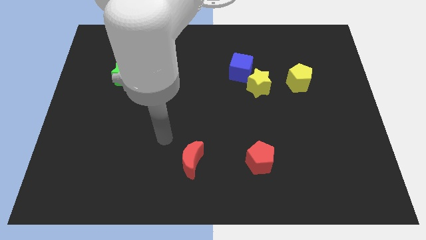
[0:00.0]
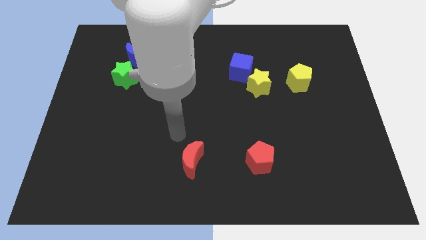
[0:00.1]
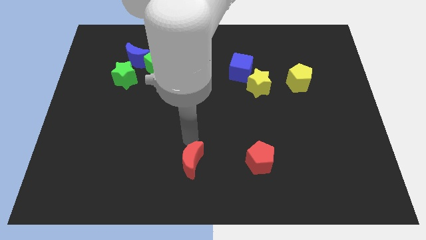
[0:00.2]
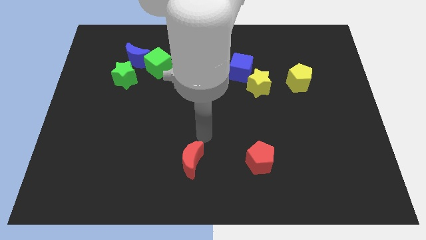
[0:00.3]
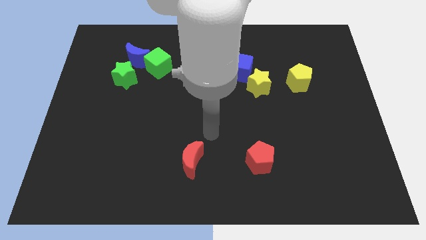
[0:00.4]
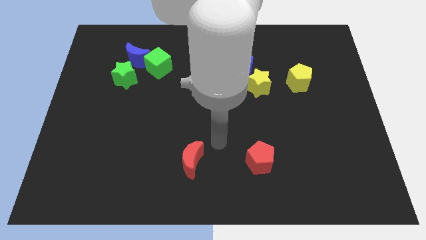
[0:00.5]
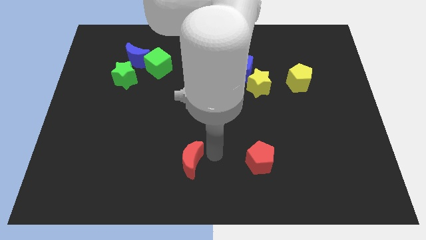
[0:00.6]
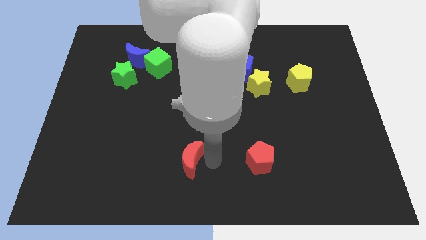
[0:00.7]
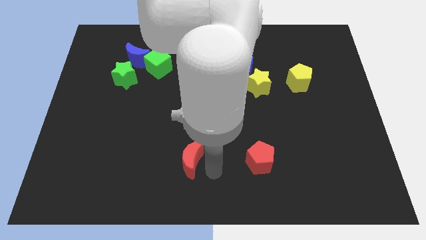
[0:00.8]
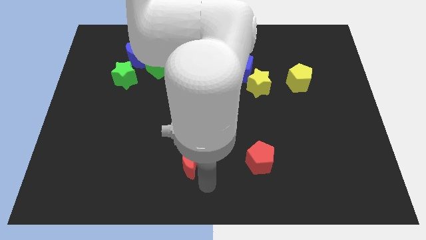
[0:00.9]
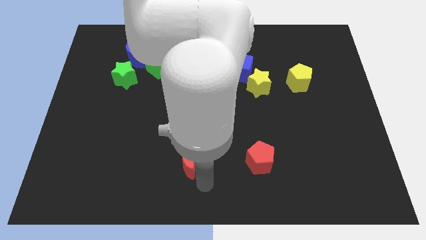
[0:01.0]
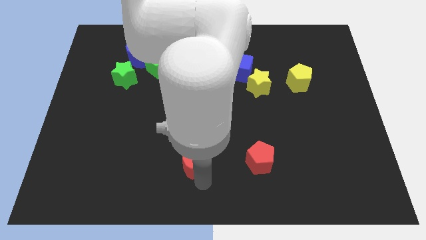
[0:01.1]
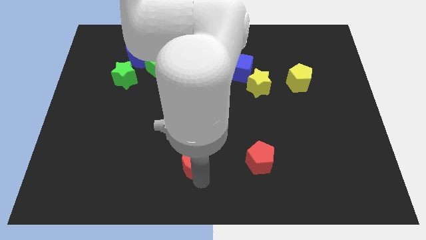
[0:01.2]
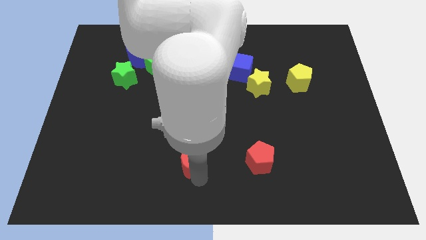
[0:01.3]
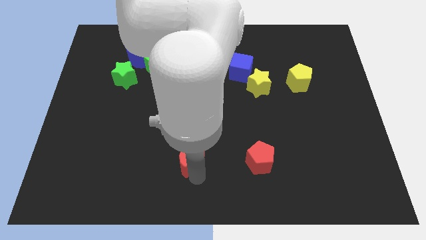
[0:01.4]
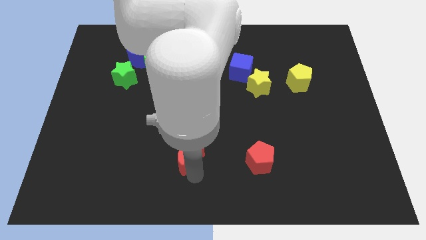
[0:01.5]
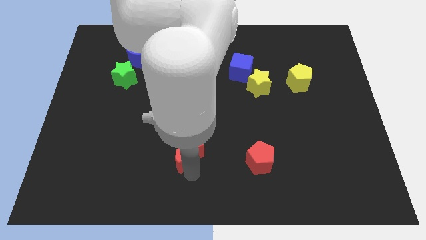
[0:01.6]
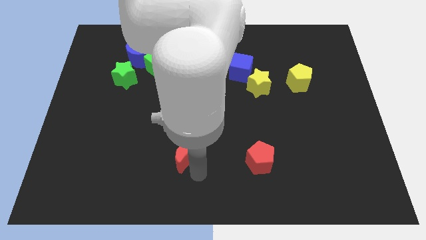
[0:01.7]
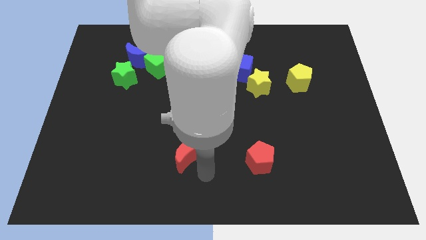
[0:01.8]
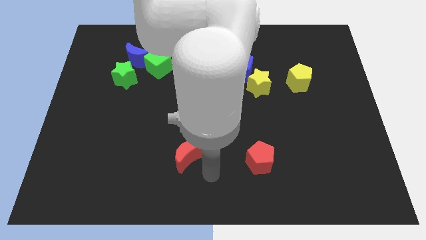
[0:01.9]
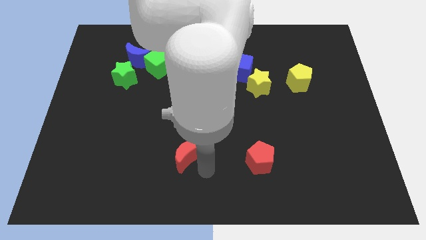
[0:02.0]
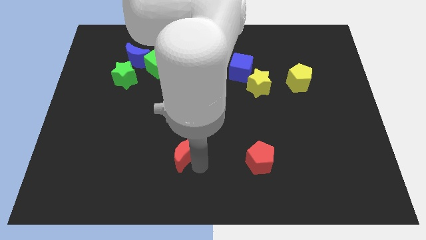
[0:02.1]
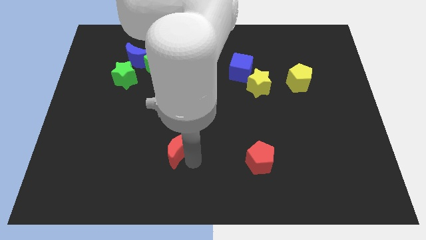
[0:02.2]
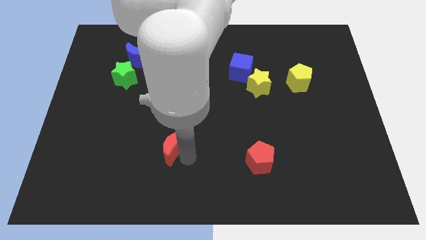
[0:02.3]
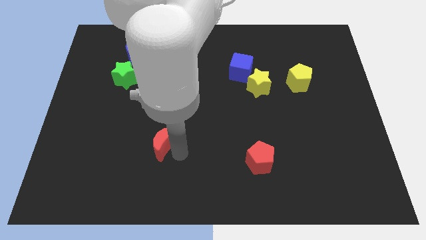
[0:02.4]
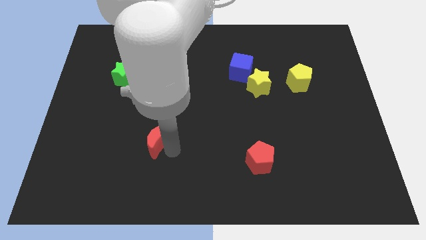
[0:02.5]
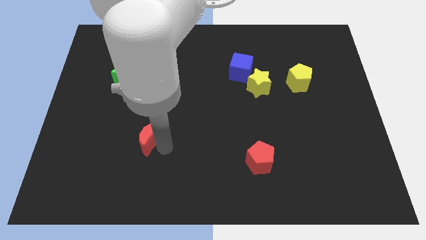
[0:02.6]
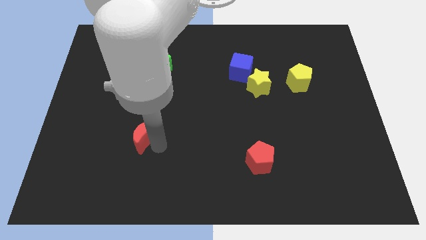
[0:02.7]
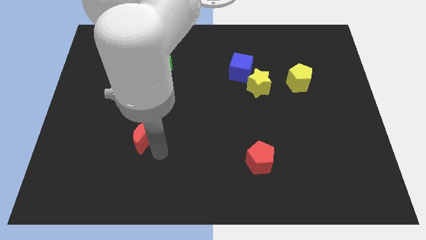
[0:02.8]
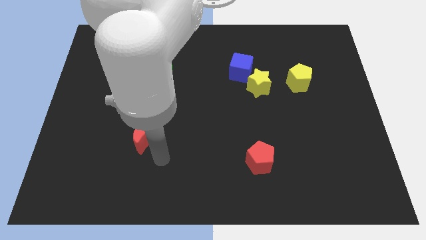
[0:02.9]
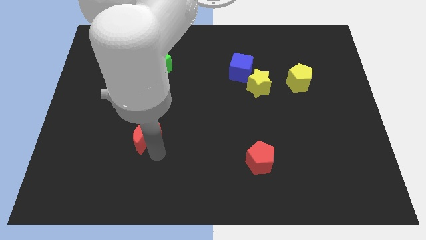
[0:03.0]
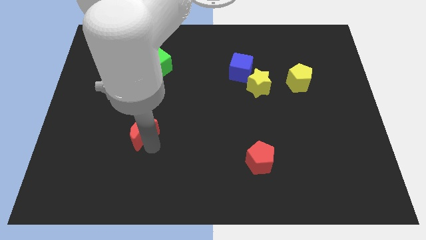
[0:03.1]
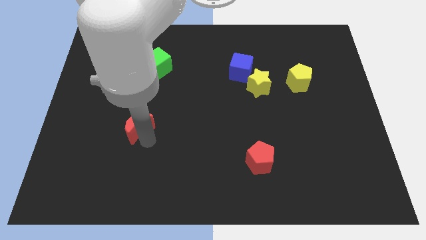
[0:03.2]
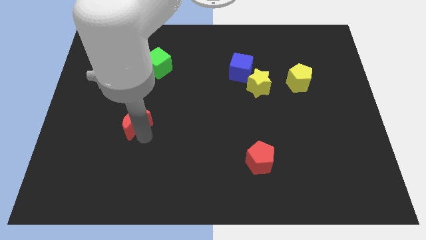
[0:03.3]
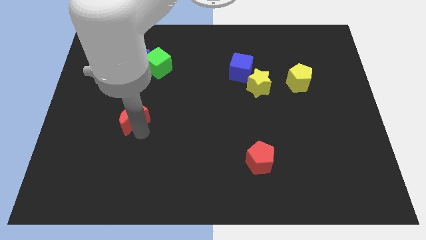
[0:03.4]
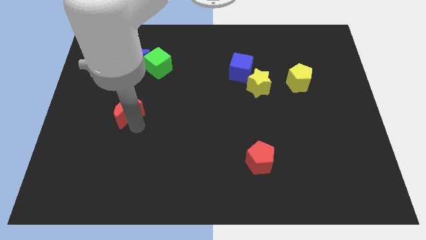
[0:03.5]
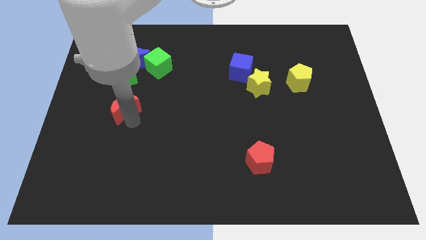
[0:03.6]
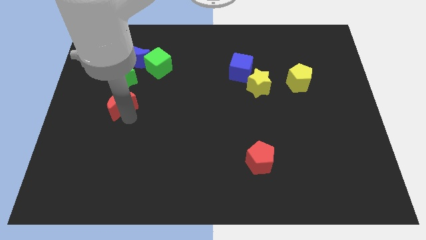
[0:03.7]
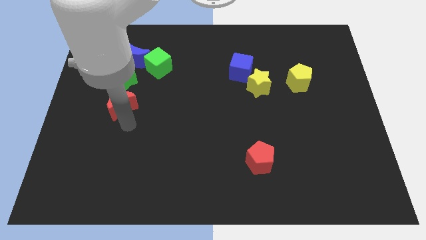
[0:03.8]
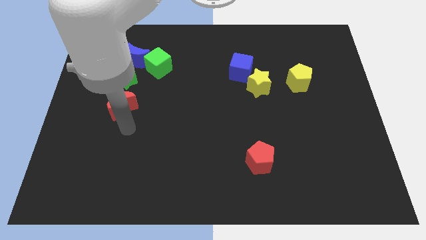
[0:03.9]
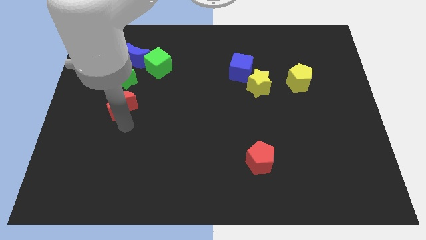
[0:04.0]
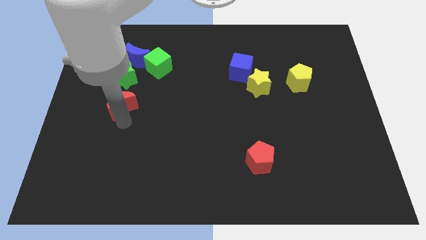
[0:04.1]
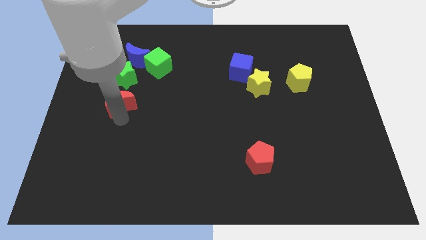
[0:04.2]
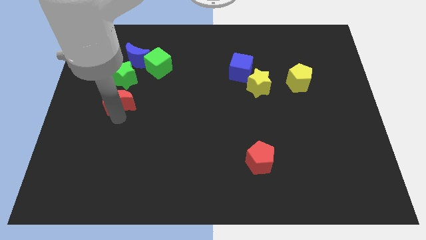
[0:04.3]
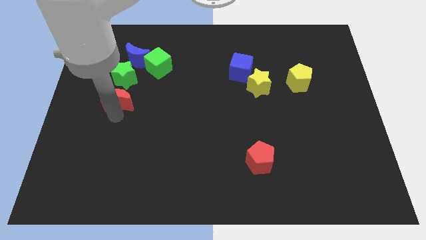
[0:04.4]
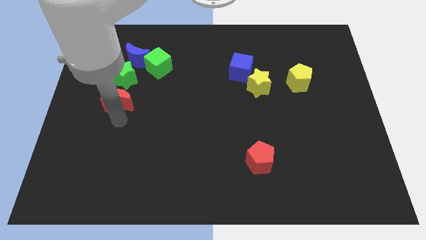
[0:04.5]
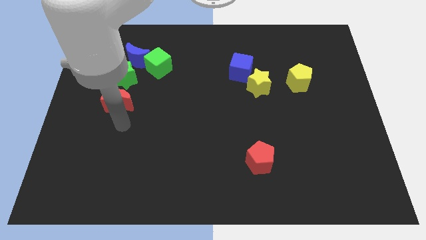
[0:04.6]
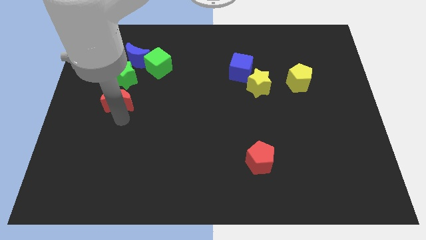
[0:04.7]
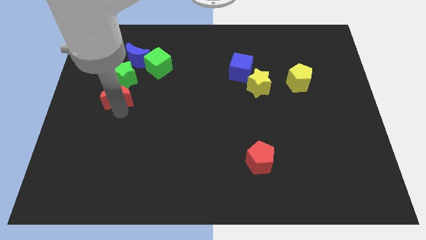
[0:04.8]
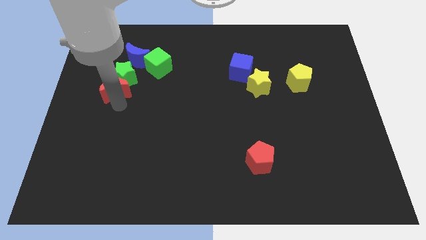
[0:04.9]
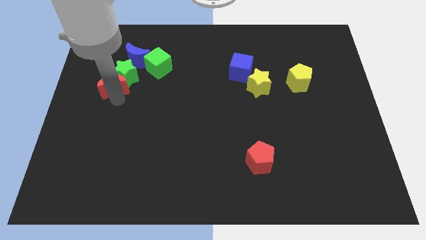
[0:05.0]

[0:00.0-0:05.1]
slide the red moon to the bottom left of the blue moon

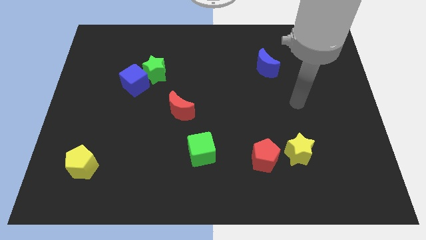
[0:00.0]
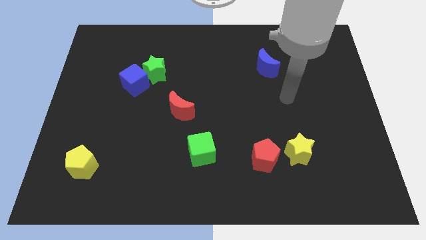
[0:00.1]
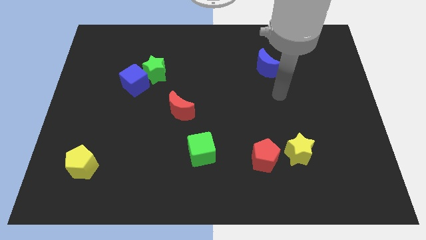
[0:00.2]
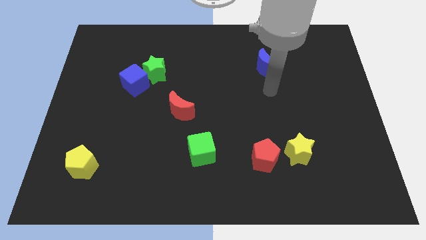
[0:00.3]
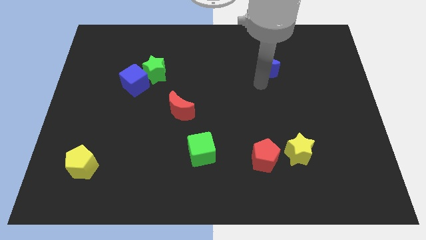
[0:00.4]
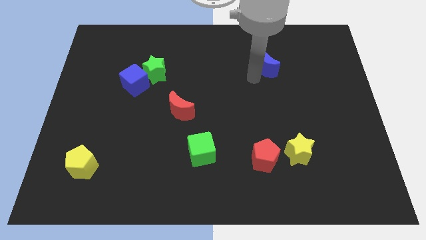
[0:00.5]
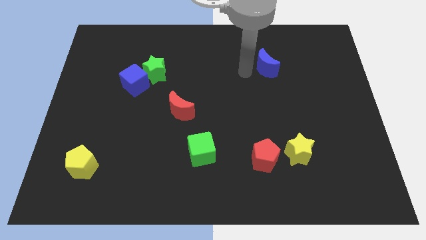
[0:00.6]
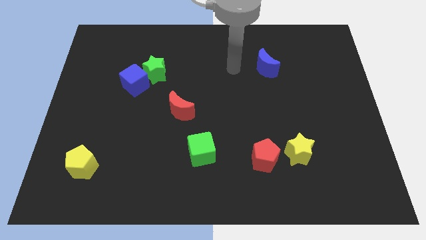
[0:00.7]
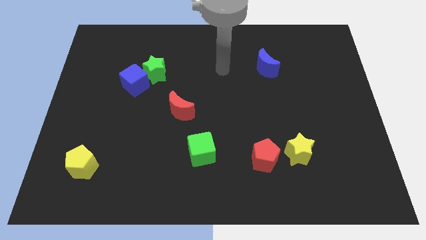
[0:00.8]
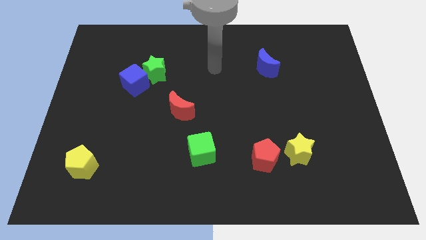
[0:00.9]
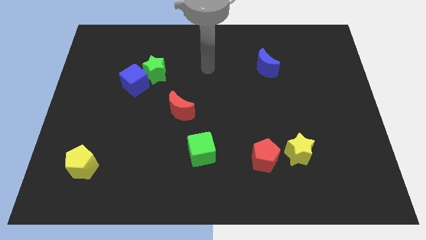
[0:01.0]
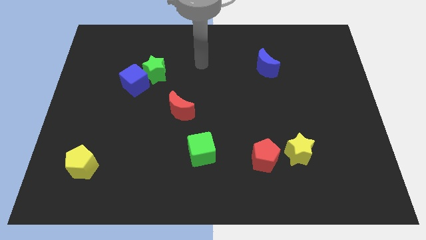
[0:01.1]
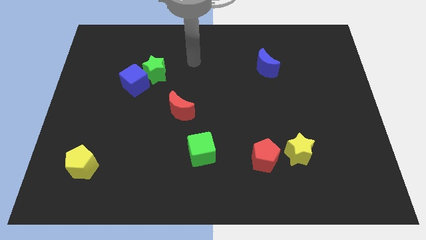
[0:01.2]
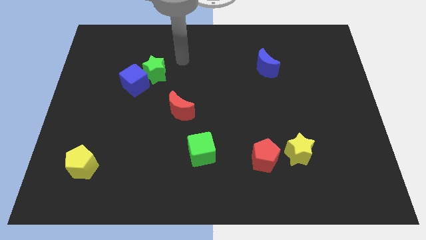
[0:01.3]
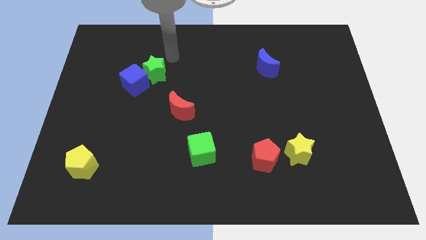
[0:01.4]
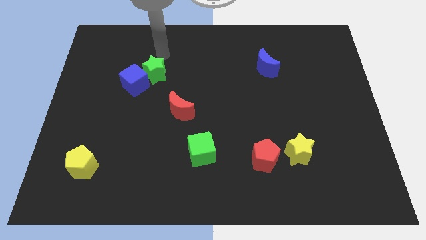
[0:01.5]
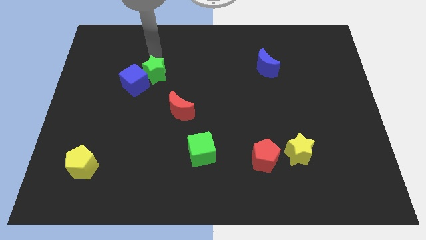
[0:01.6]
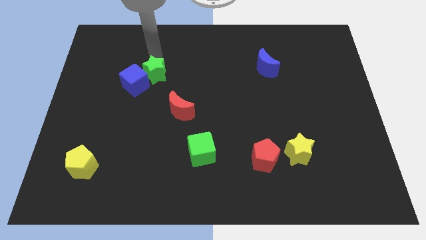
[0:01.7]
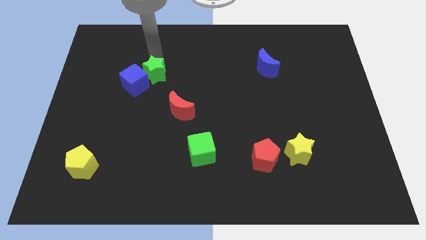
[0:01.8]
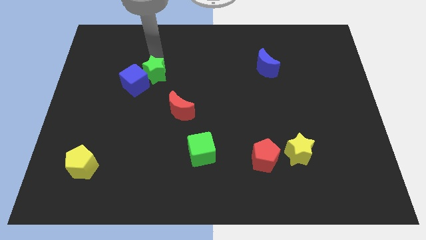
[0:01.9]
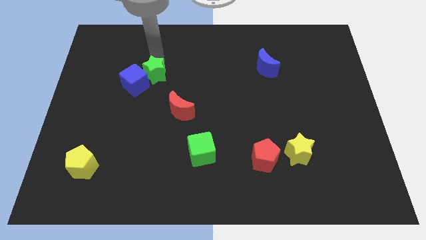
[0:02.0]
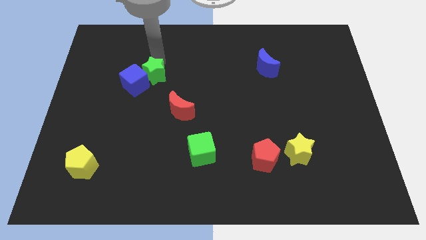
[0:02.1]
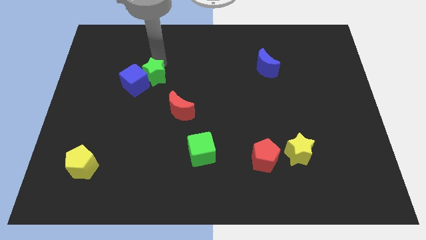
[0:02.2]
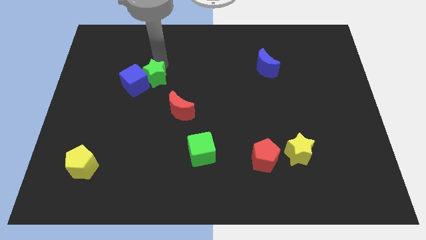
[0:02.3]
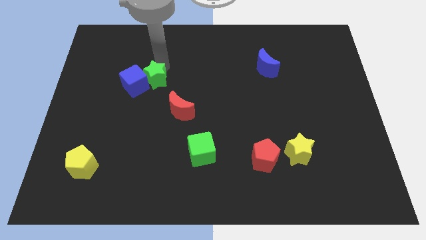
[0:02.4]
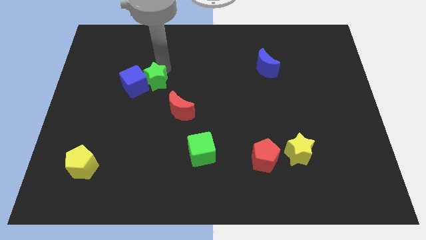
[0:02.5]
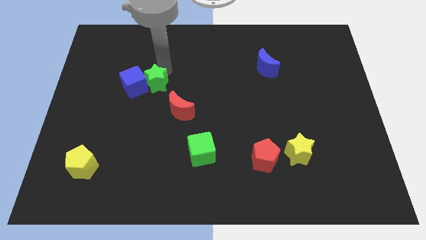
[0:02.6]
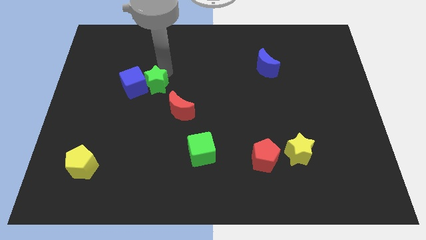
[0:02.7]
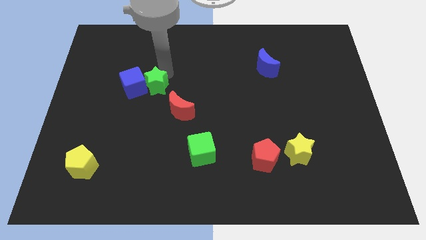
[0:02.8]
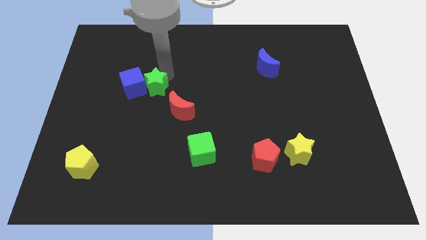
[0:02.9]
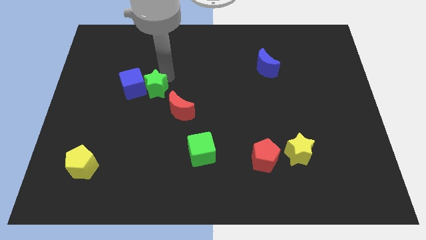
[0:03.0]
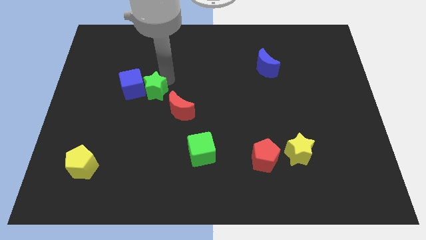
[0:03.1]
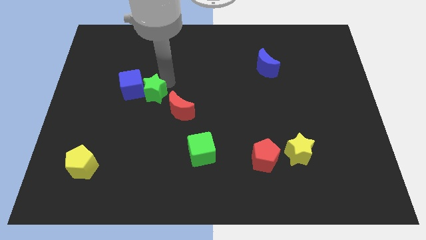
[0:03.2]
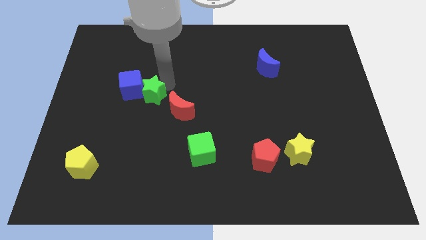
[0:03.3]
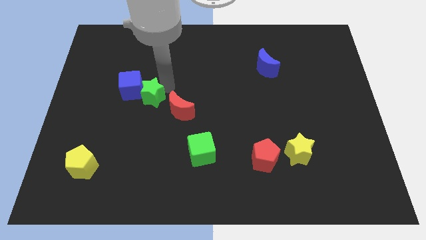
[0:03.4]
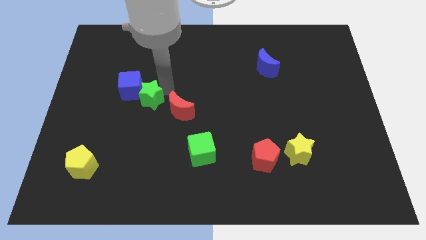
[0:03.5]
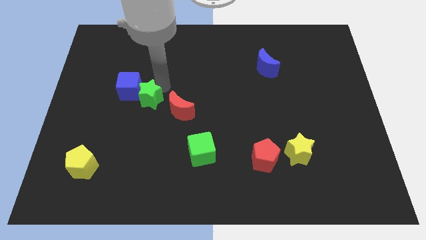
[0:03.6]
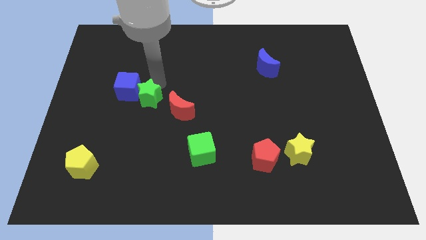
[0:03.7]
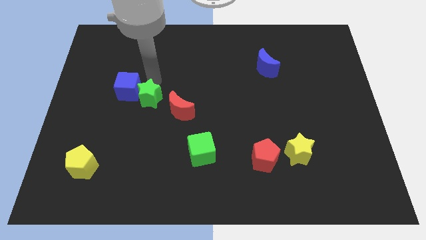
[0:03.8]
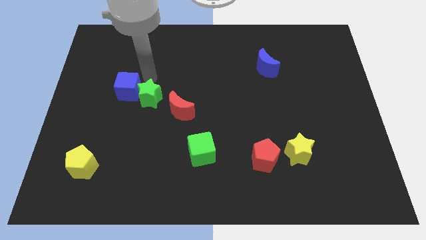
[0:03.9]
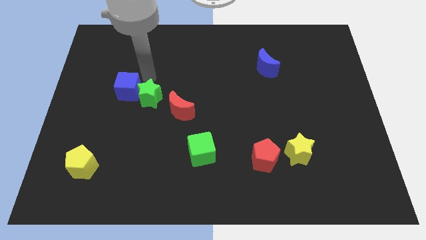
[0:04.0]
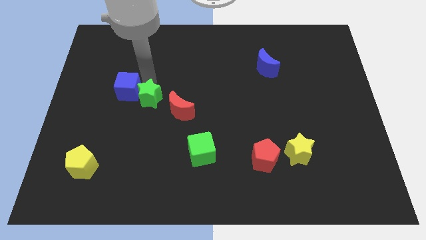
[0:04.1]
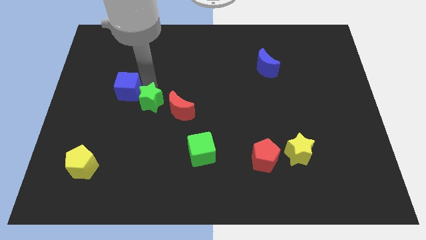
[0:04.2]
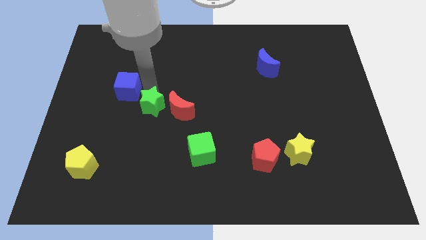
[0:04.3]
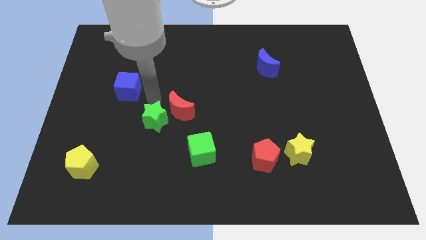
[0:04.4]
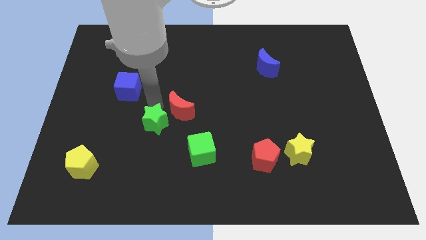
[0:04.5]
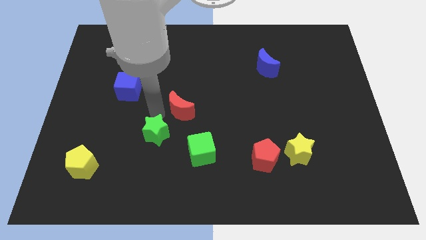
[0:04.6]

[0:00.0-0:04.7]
move the green star to the left side of the green cube
